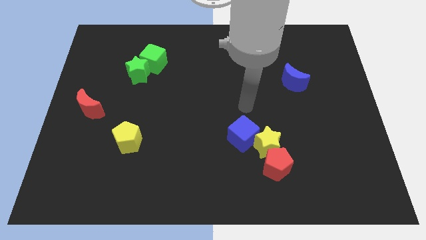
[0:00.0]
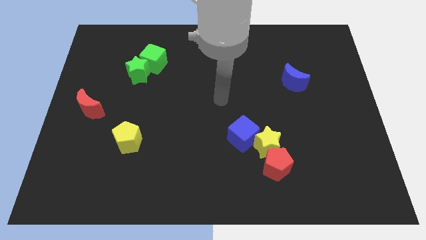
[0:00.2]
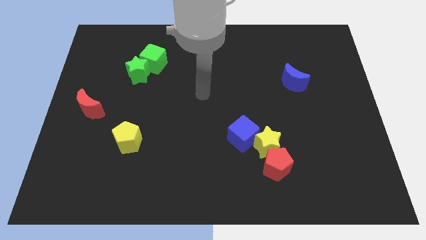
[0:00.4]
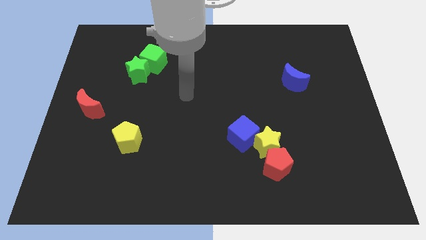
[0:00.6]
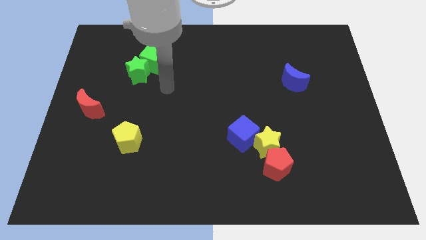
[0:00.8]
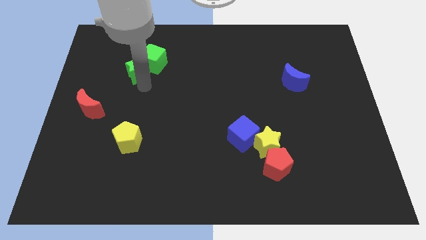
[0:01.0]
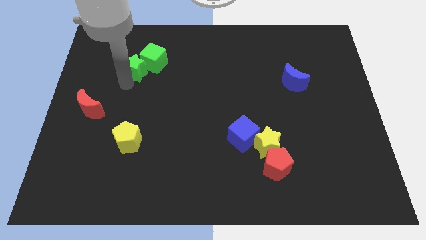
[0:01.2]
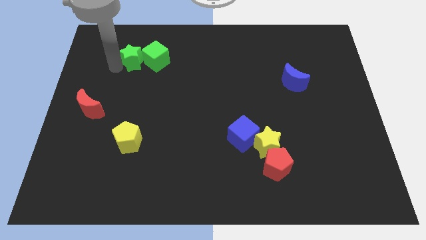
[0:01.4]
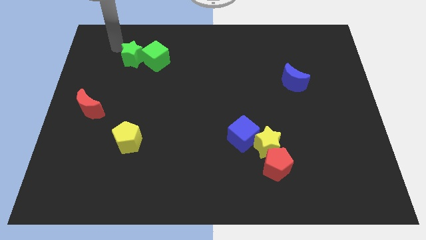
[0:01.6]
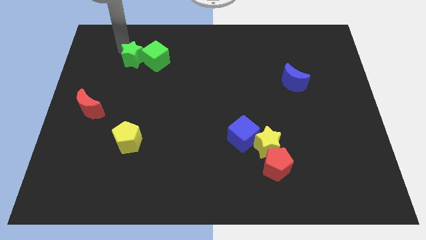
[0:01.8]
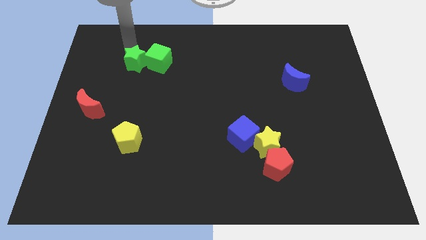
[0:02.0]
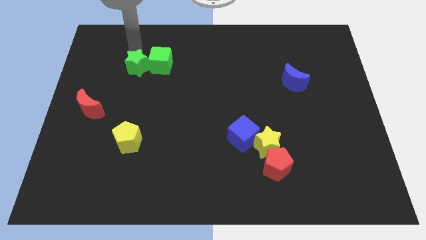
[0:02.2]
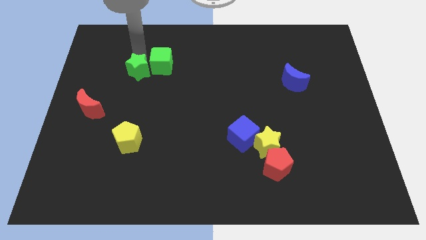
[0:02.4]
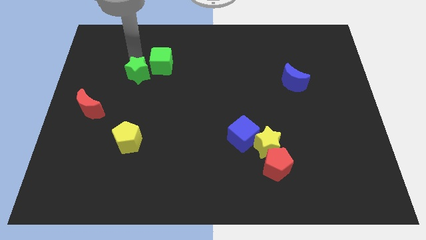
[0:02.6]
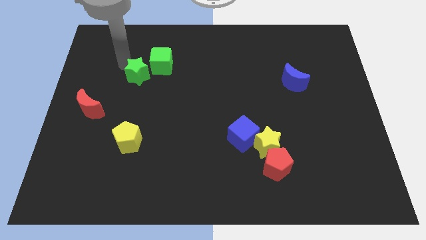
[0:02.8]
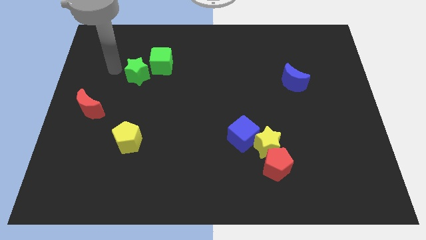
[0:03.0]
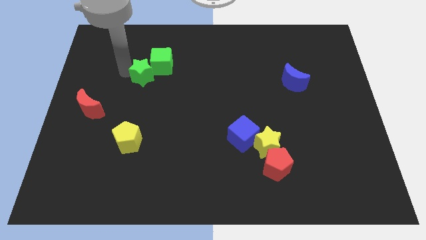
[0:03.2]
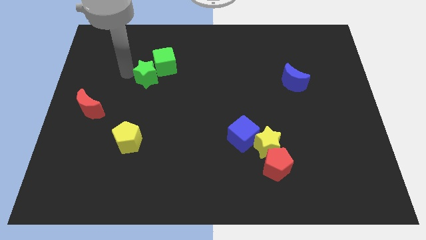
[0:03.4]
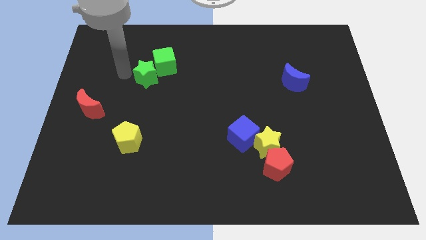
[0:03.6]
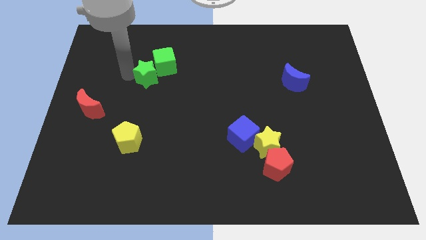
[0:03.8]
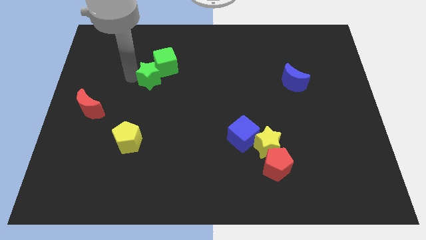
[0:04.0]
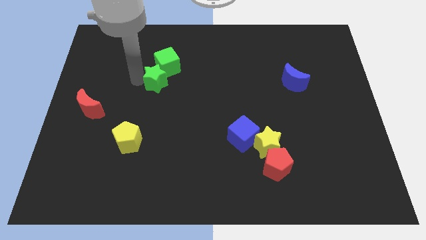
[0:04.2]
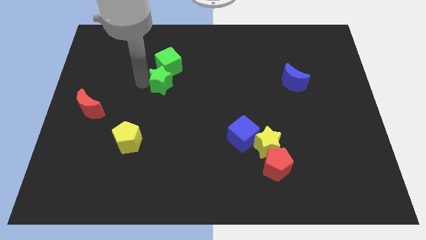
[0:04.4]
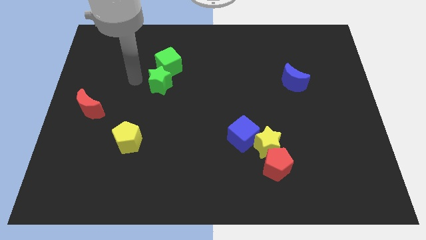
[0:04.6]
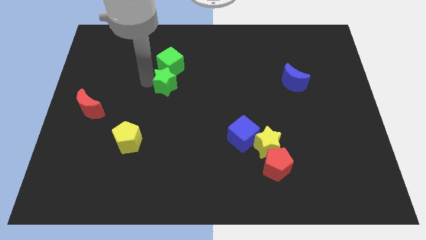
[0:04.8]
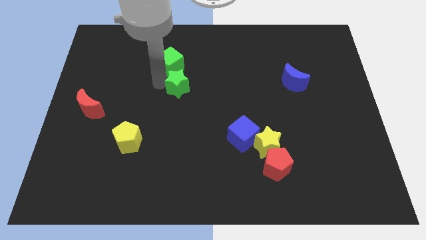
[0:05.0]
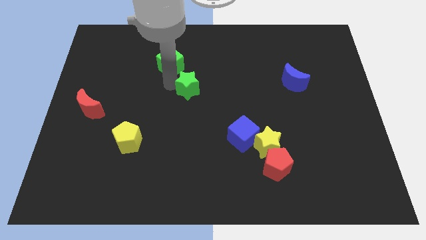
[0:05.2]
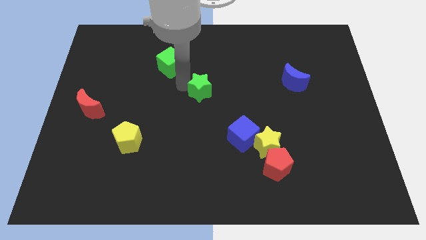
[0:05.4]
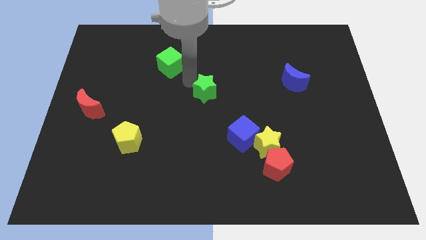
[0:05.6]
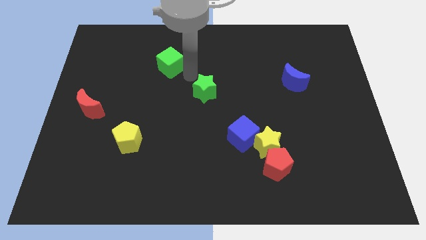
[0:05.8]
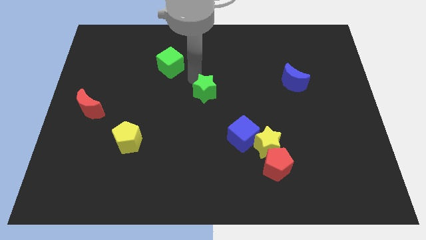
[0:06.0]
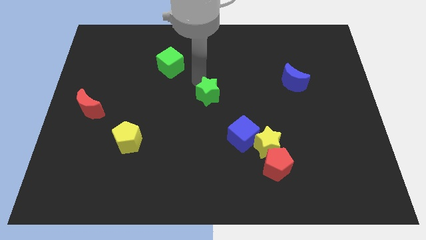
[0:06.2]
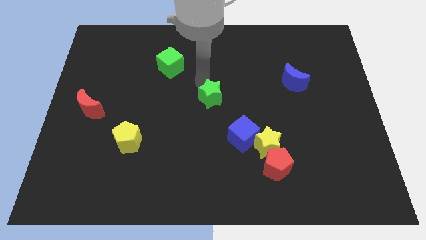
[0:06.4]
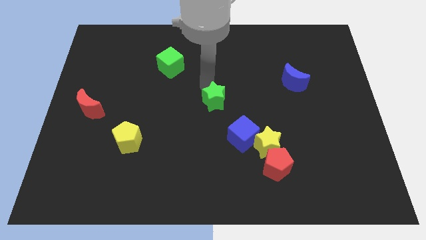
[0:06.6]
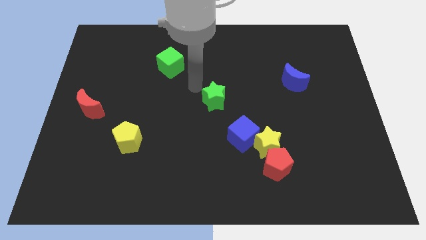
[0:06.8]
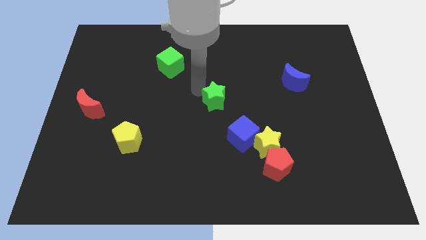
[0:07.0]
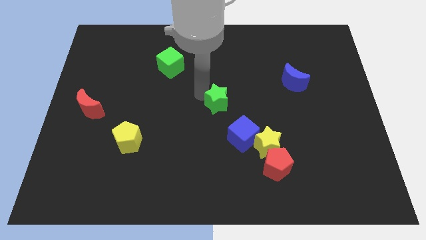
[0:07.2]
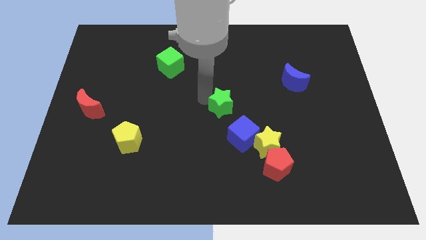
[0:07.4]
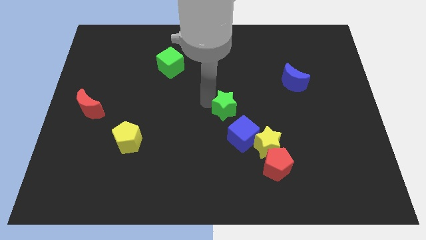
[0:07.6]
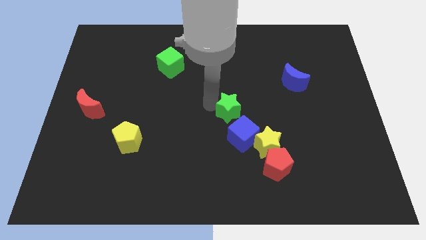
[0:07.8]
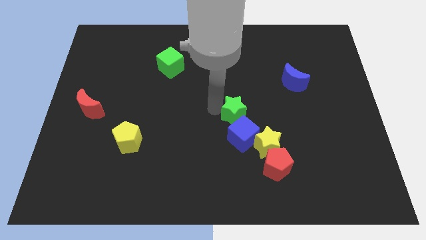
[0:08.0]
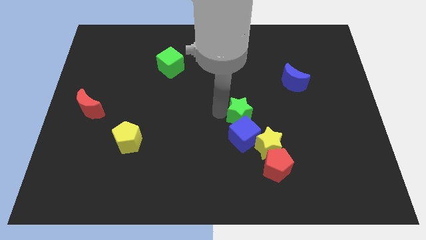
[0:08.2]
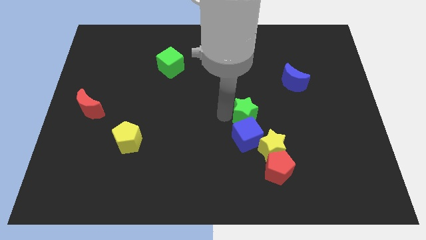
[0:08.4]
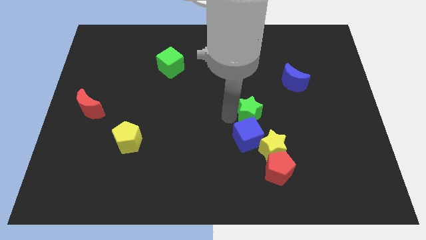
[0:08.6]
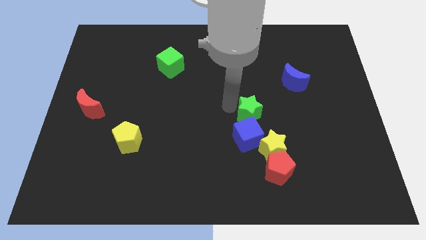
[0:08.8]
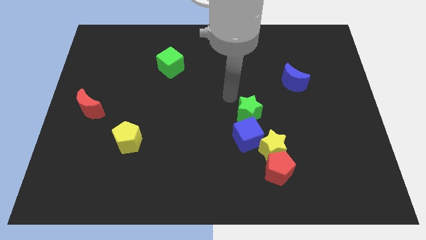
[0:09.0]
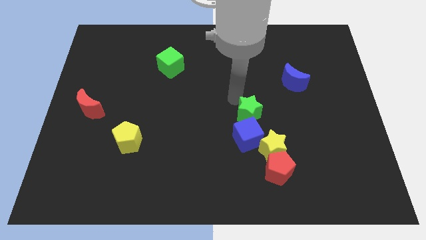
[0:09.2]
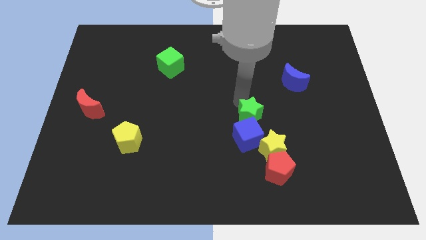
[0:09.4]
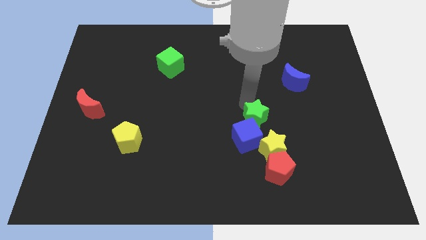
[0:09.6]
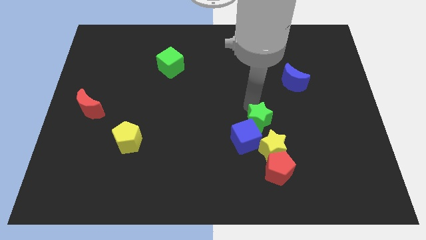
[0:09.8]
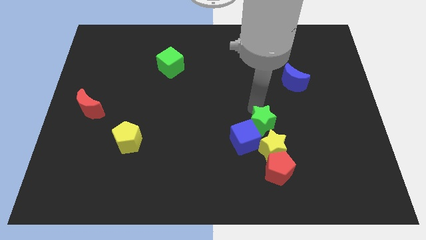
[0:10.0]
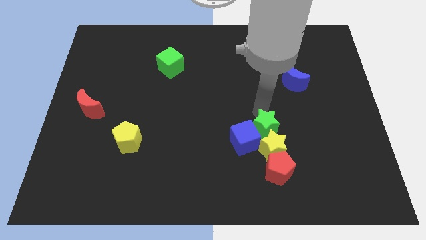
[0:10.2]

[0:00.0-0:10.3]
move the green star towards the yellow star

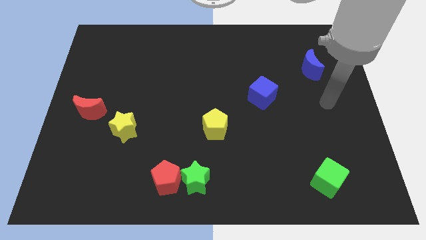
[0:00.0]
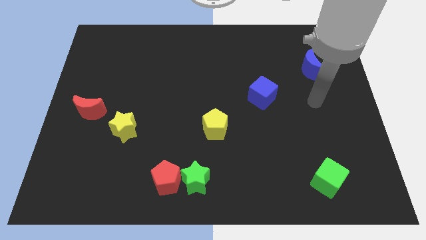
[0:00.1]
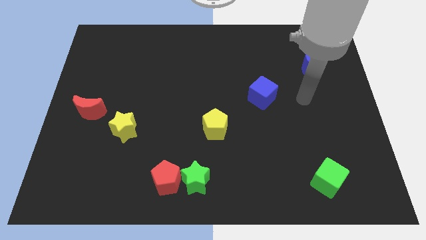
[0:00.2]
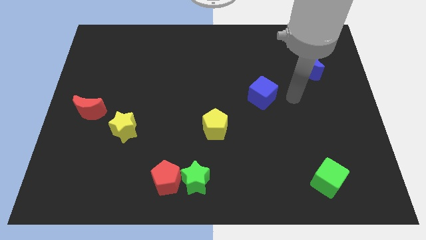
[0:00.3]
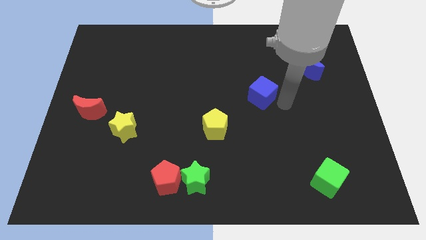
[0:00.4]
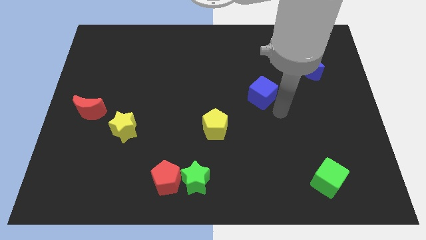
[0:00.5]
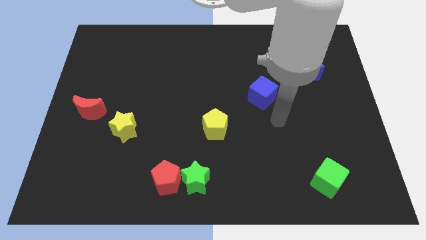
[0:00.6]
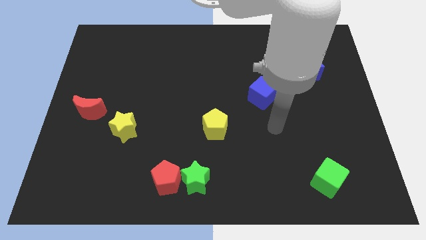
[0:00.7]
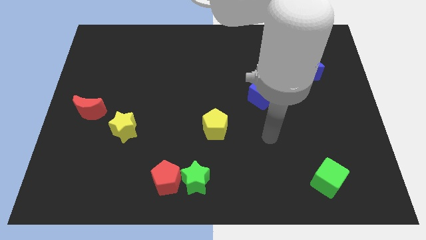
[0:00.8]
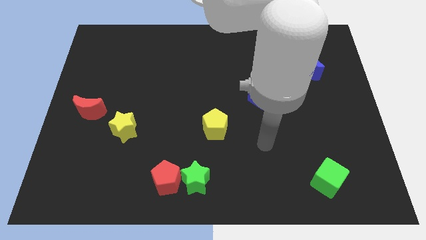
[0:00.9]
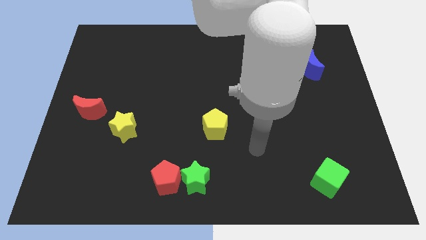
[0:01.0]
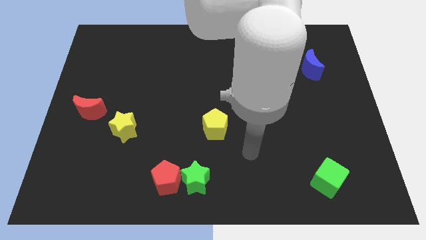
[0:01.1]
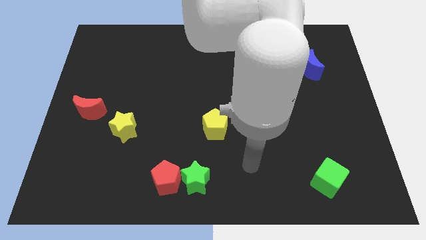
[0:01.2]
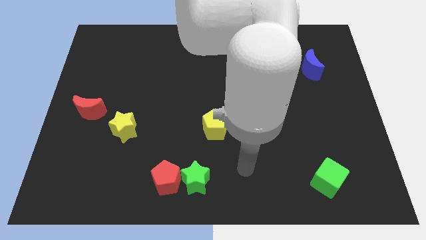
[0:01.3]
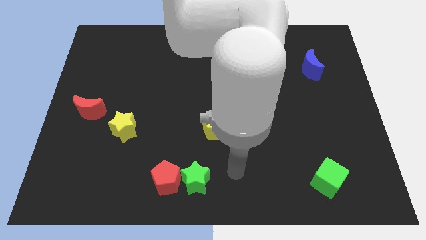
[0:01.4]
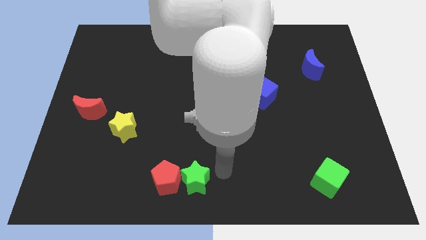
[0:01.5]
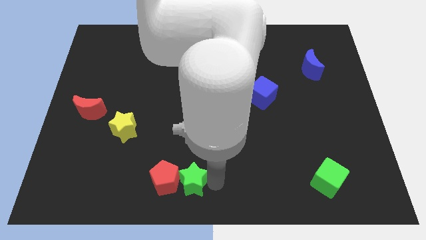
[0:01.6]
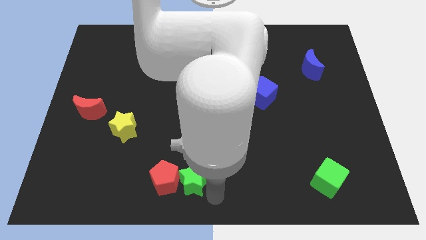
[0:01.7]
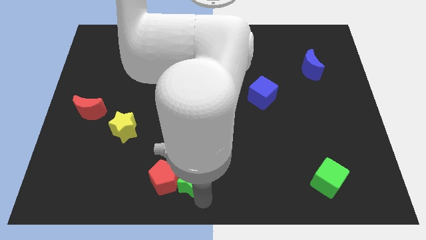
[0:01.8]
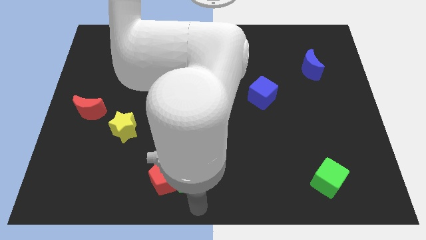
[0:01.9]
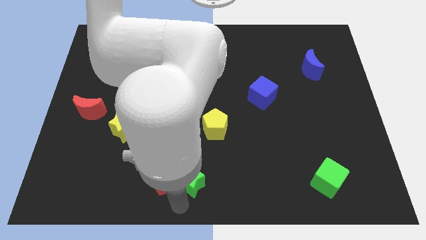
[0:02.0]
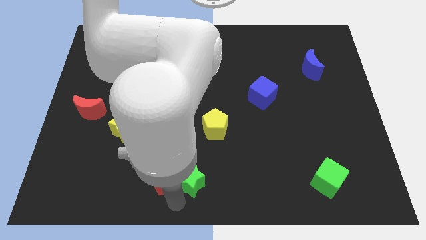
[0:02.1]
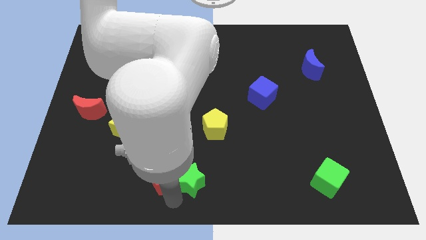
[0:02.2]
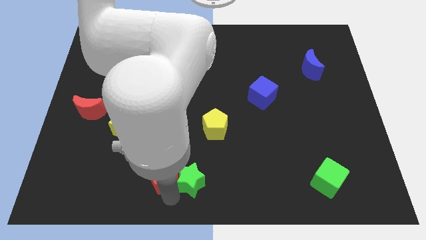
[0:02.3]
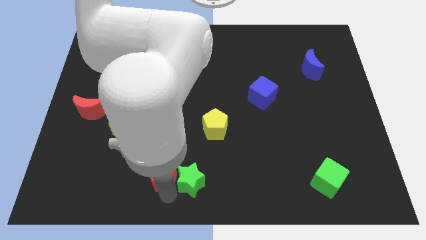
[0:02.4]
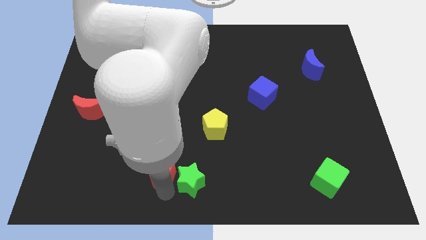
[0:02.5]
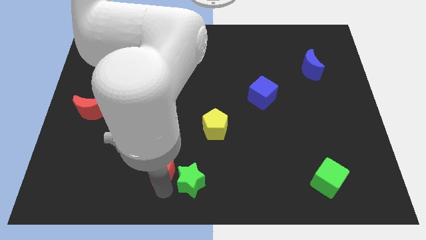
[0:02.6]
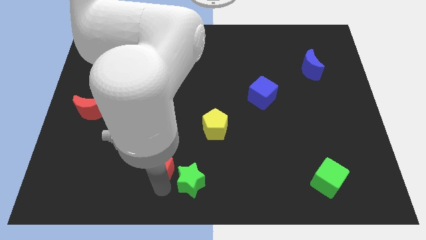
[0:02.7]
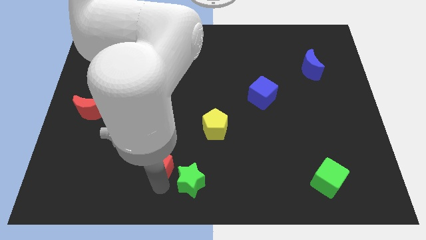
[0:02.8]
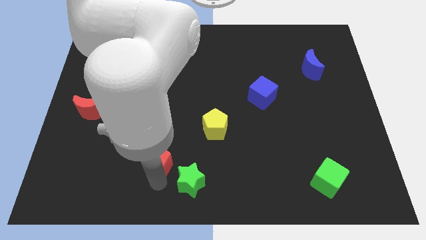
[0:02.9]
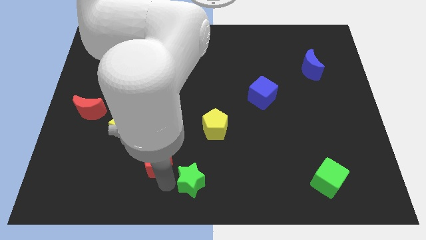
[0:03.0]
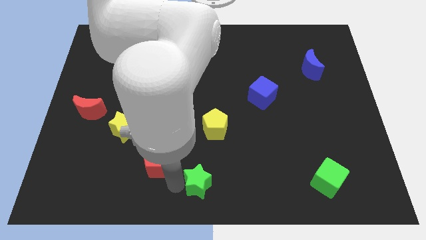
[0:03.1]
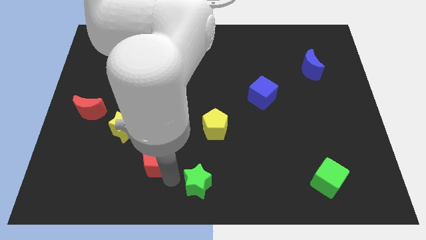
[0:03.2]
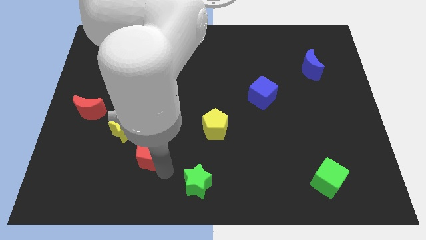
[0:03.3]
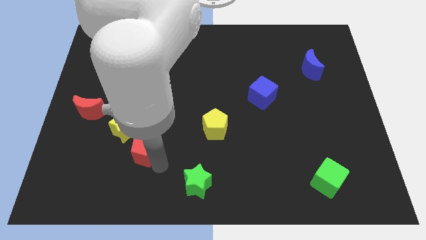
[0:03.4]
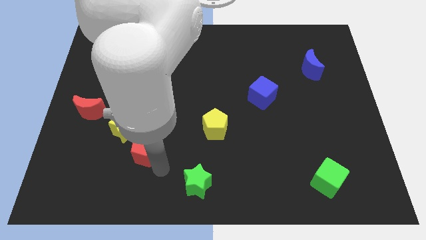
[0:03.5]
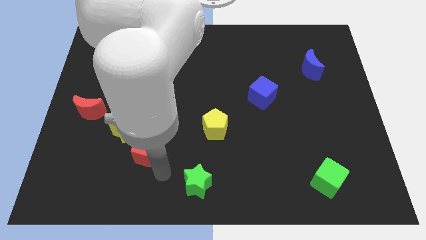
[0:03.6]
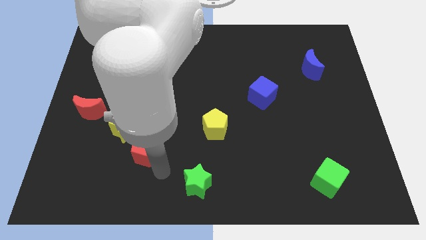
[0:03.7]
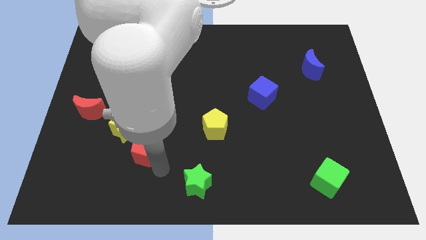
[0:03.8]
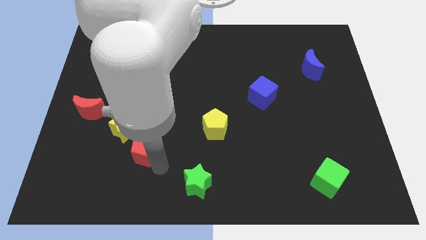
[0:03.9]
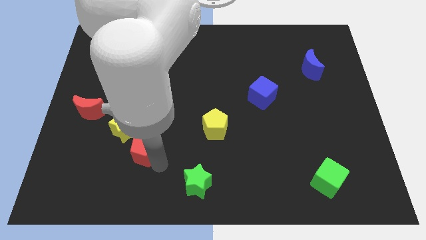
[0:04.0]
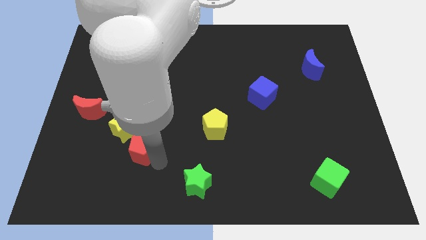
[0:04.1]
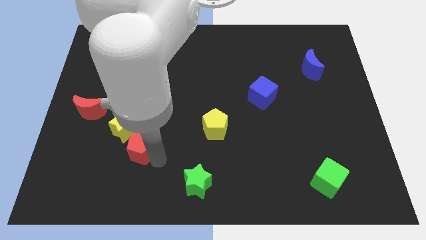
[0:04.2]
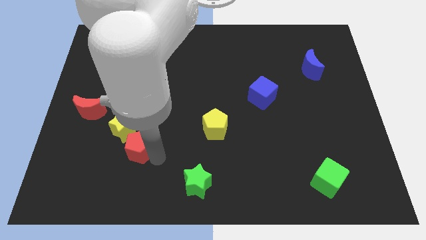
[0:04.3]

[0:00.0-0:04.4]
push the red pentagon close to the yellow star
